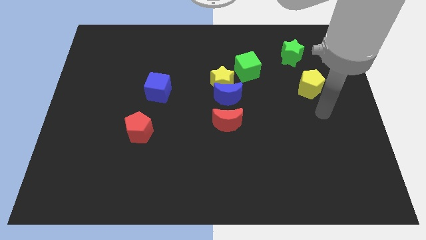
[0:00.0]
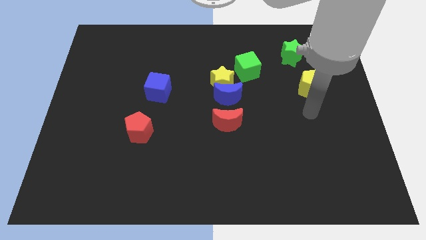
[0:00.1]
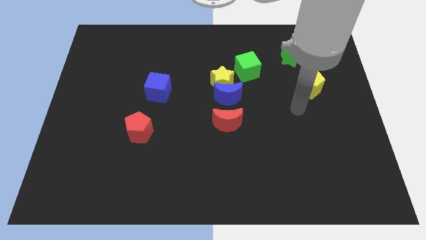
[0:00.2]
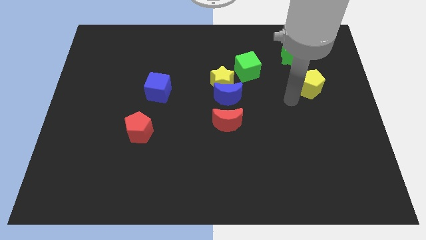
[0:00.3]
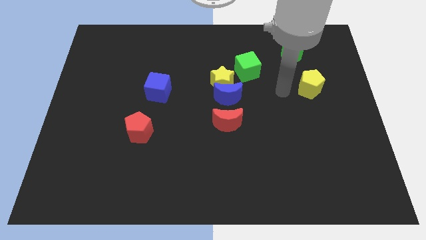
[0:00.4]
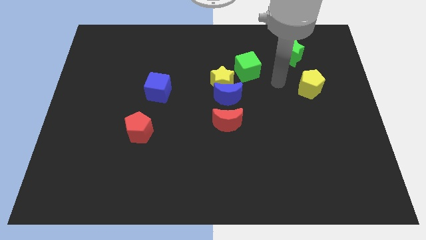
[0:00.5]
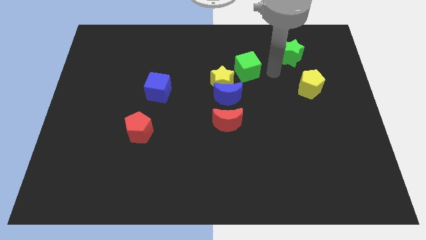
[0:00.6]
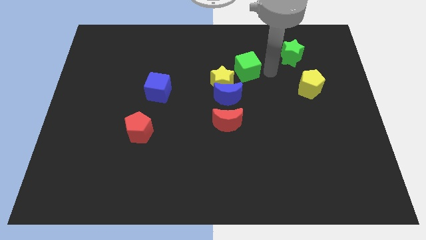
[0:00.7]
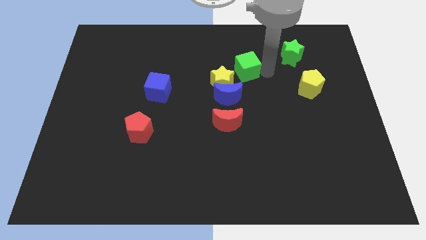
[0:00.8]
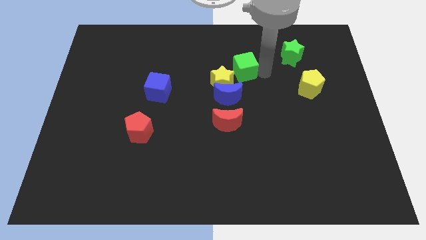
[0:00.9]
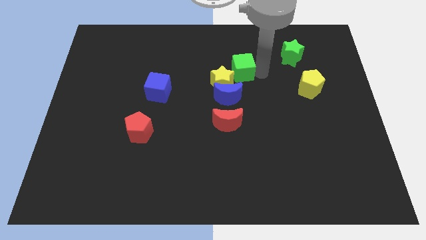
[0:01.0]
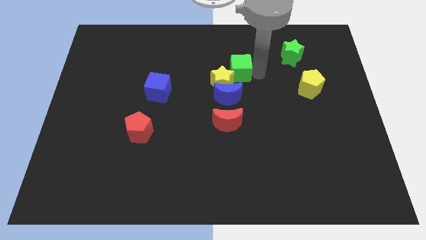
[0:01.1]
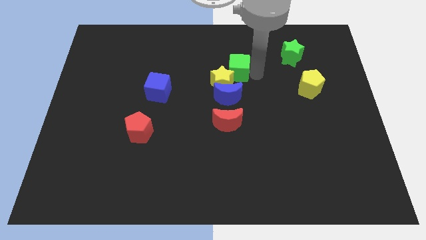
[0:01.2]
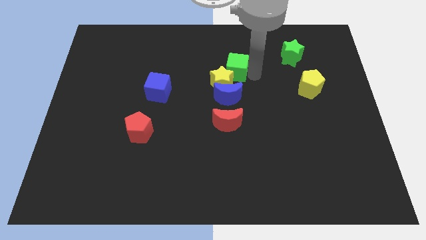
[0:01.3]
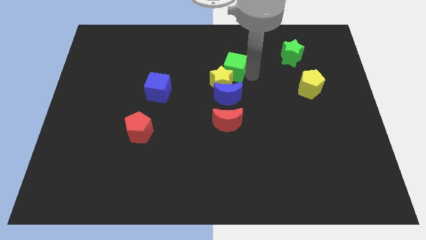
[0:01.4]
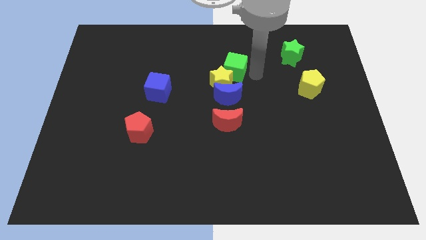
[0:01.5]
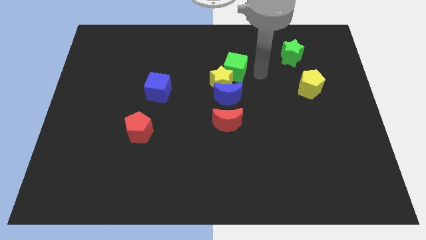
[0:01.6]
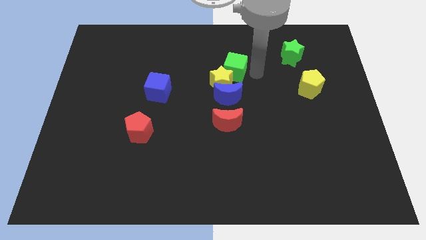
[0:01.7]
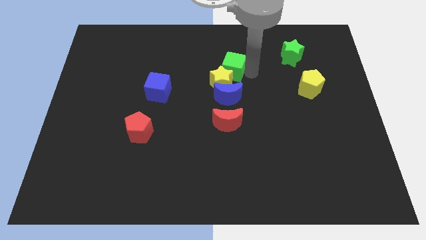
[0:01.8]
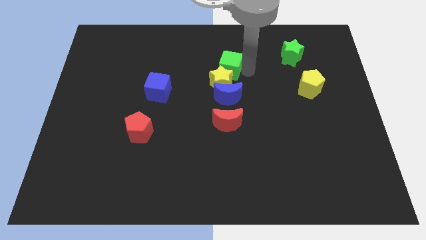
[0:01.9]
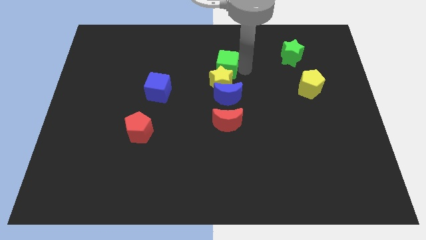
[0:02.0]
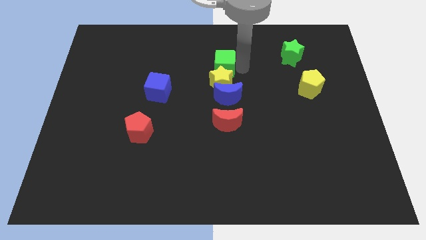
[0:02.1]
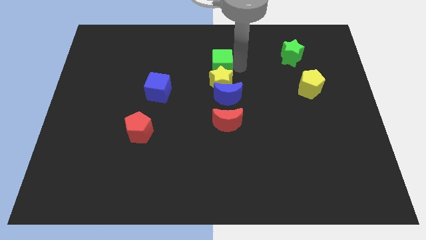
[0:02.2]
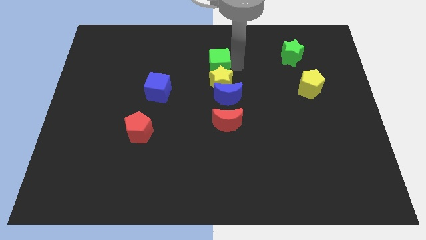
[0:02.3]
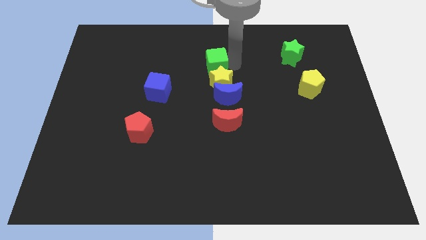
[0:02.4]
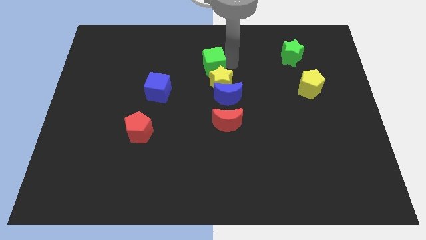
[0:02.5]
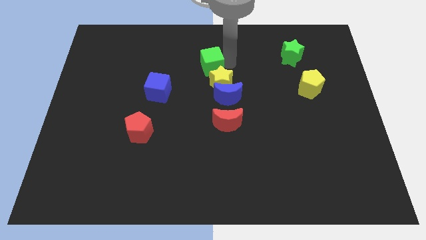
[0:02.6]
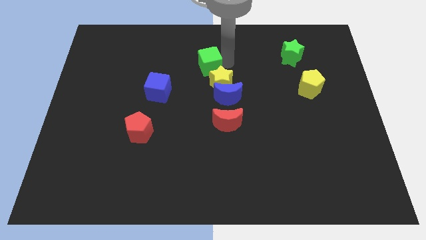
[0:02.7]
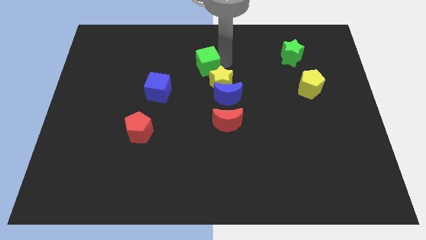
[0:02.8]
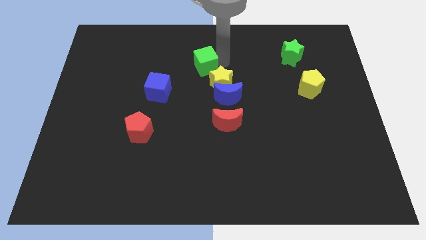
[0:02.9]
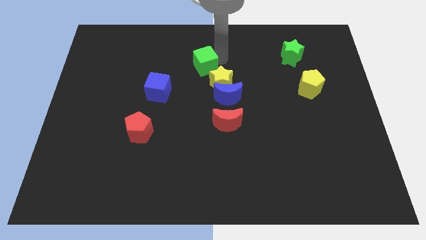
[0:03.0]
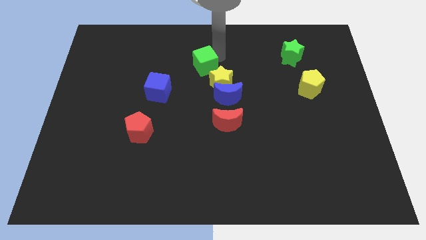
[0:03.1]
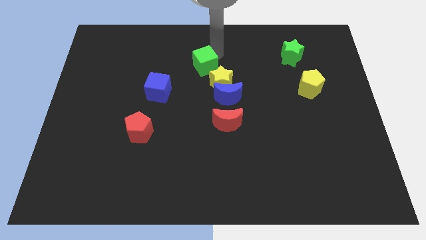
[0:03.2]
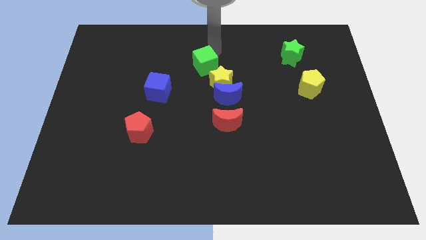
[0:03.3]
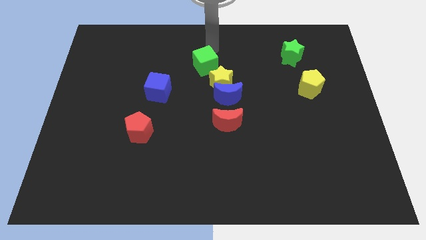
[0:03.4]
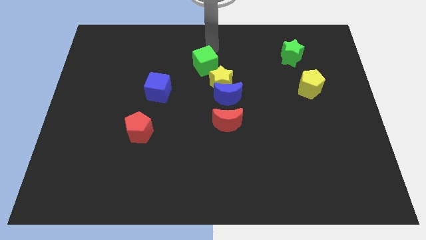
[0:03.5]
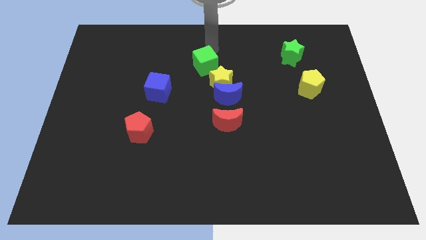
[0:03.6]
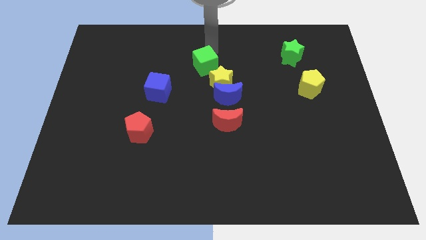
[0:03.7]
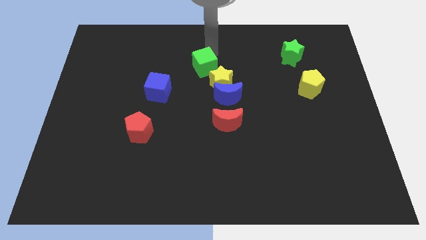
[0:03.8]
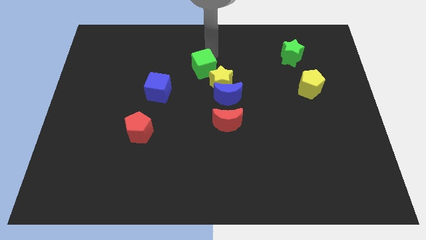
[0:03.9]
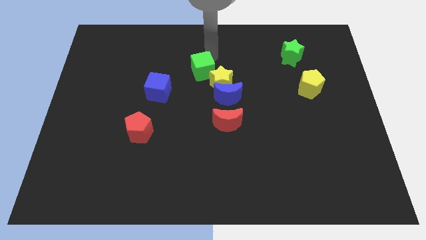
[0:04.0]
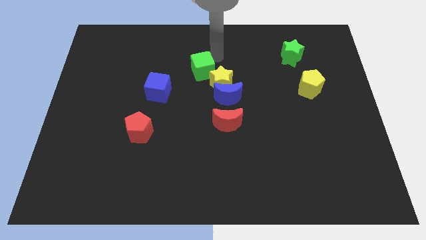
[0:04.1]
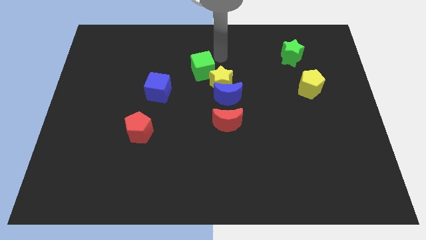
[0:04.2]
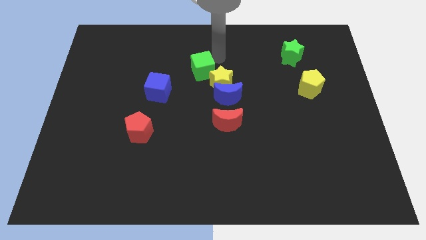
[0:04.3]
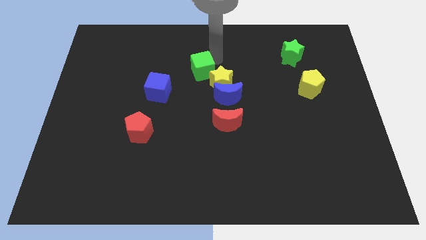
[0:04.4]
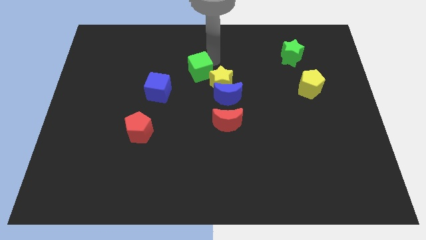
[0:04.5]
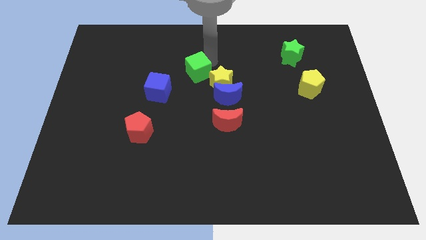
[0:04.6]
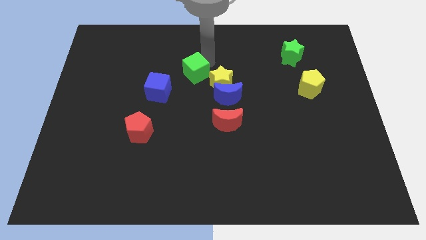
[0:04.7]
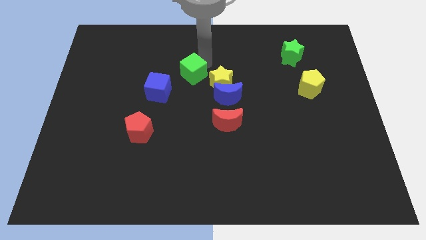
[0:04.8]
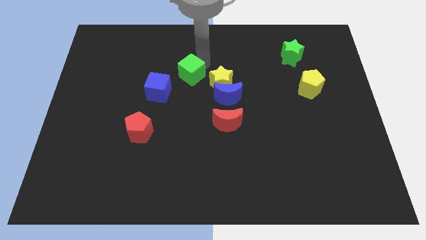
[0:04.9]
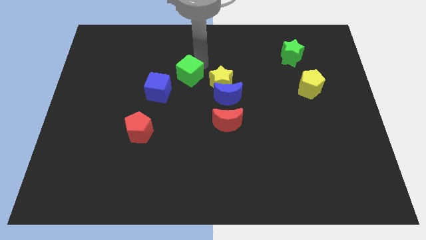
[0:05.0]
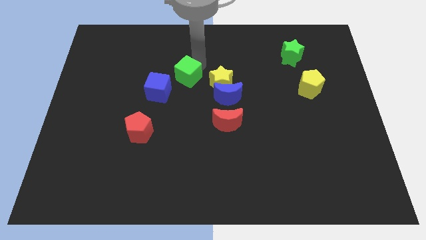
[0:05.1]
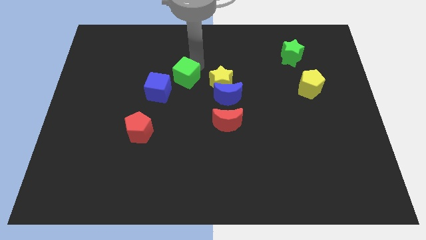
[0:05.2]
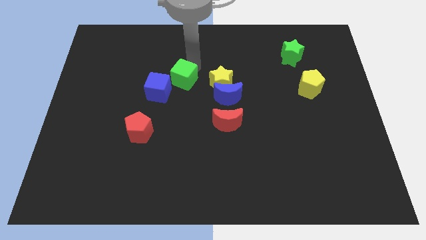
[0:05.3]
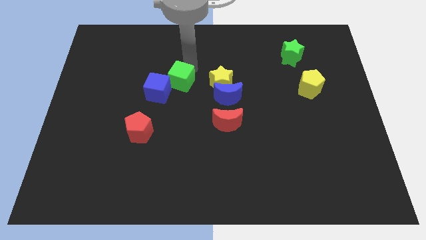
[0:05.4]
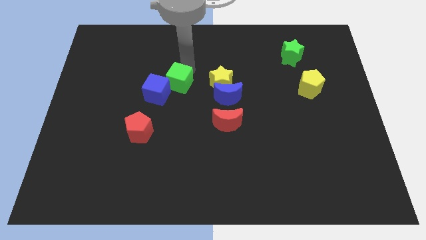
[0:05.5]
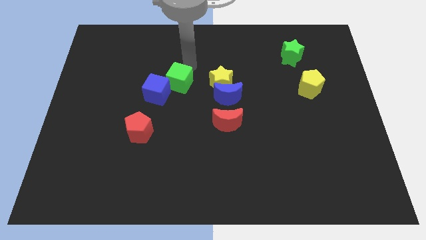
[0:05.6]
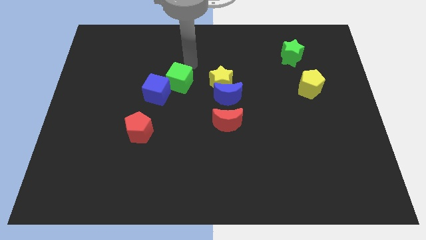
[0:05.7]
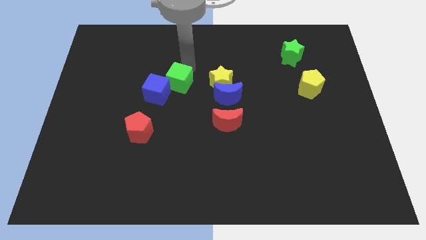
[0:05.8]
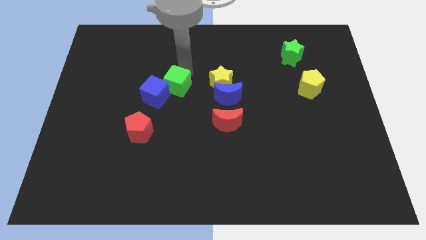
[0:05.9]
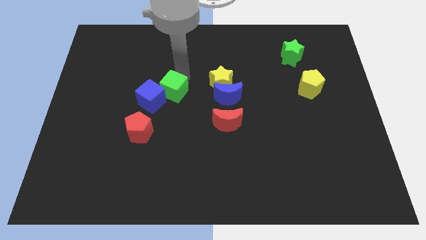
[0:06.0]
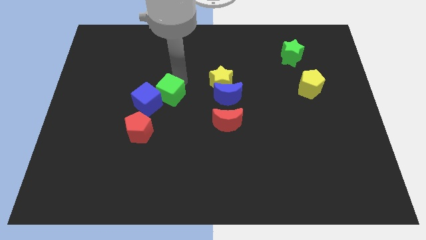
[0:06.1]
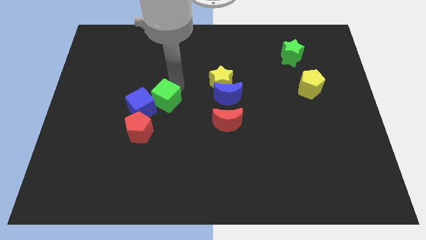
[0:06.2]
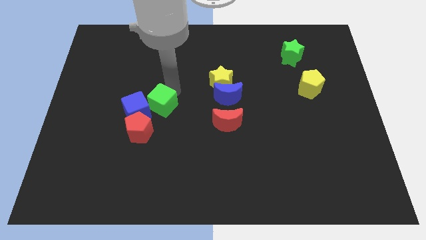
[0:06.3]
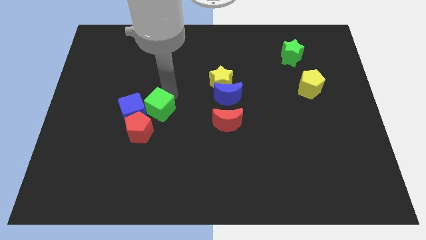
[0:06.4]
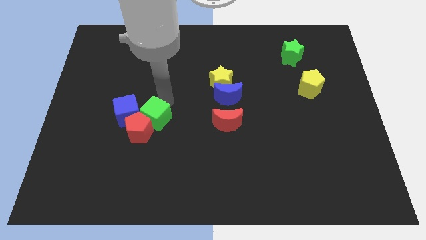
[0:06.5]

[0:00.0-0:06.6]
move the green cube to the red pentagon

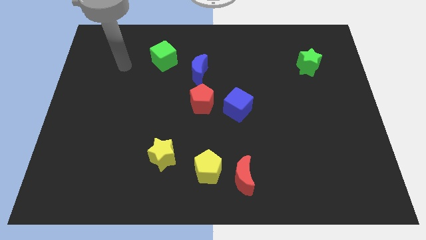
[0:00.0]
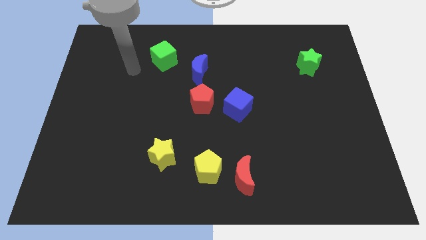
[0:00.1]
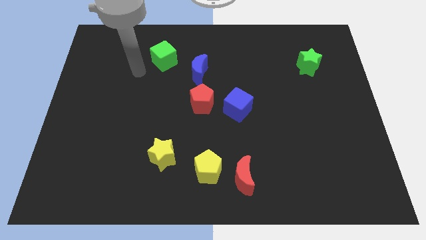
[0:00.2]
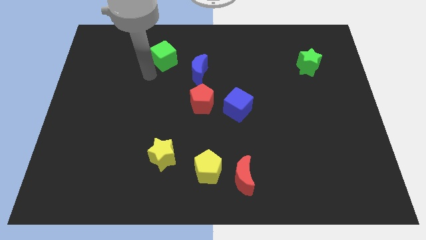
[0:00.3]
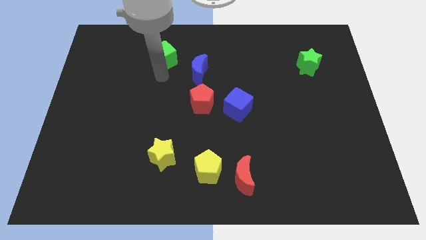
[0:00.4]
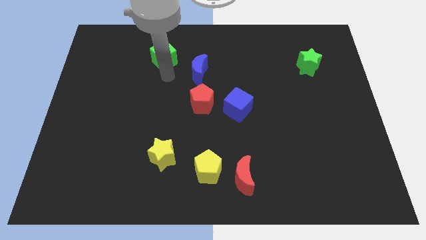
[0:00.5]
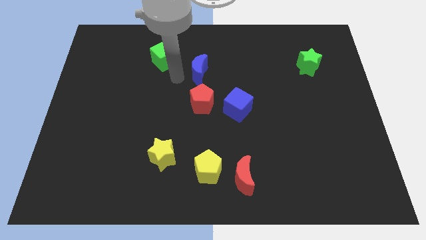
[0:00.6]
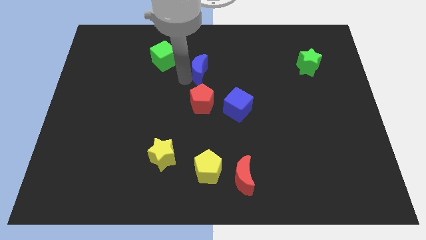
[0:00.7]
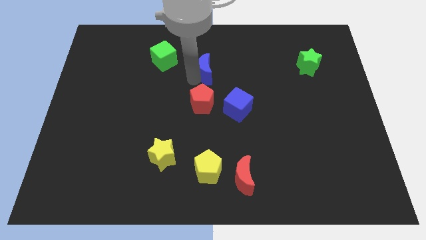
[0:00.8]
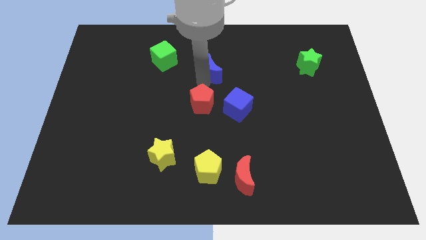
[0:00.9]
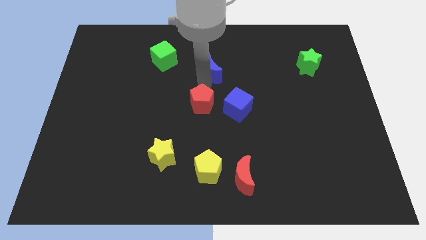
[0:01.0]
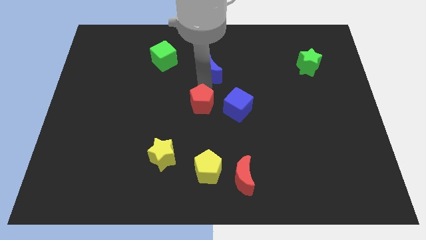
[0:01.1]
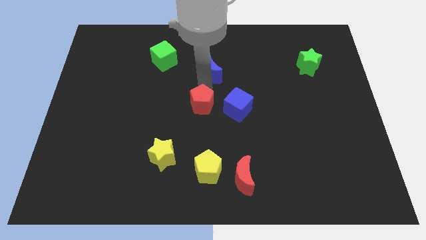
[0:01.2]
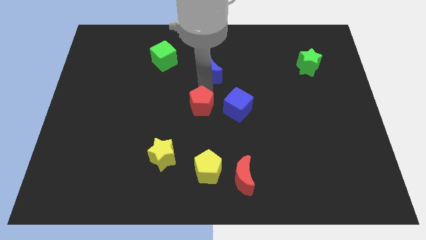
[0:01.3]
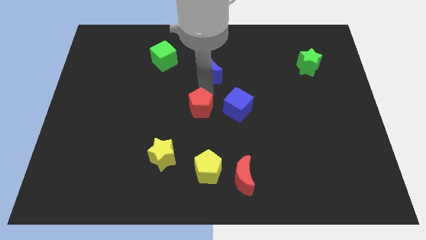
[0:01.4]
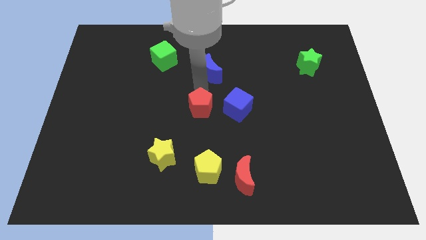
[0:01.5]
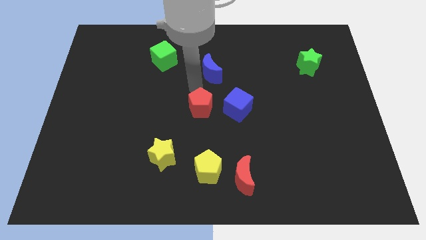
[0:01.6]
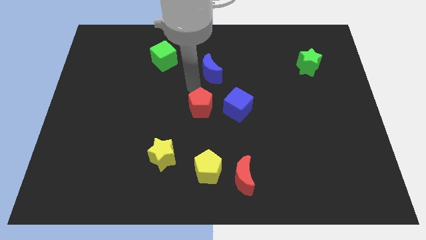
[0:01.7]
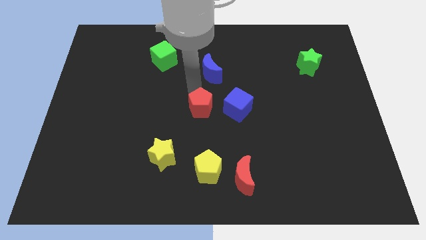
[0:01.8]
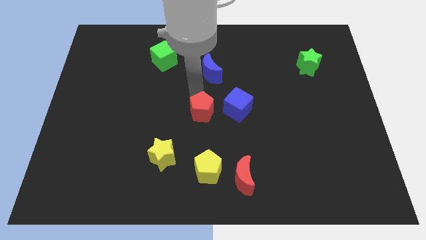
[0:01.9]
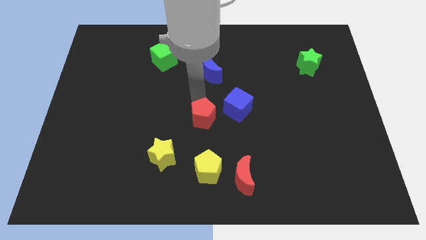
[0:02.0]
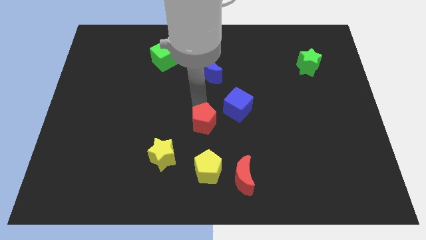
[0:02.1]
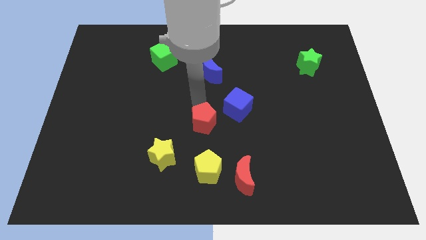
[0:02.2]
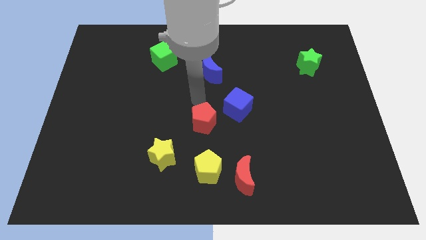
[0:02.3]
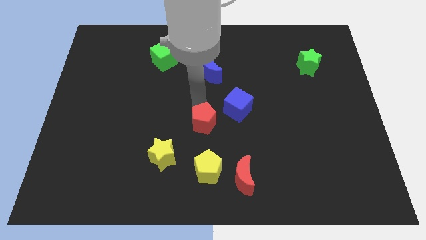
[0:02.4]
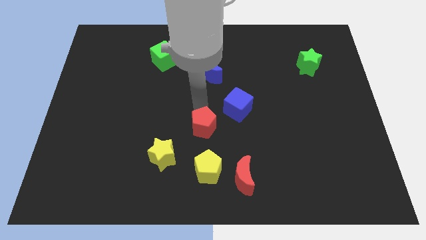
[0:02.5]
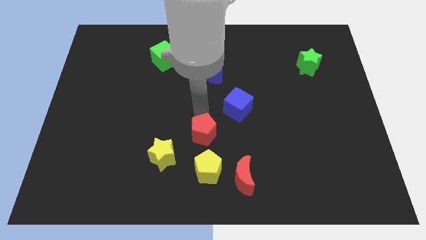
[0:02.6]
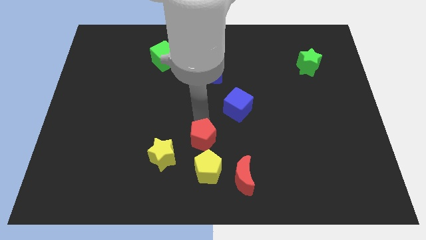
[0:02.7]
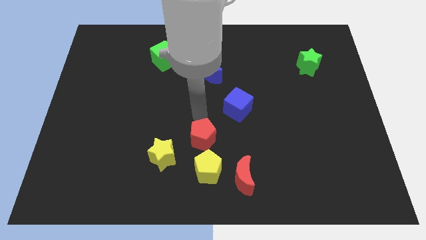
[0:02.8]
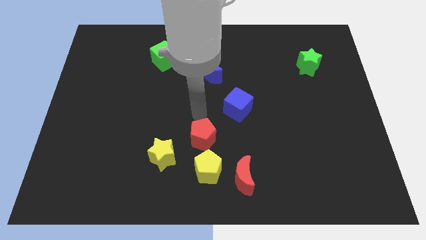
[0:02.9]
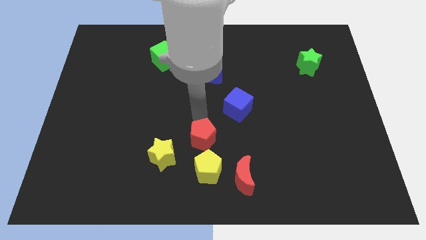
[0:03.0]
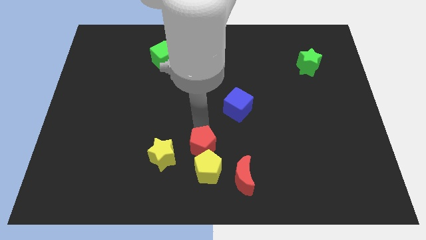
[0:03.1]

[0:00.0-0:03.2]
put the red pentagon close to the yellow pentagon
